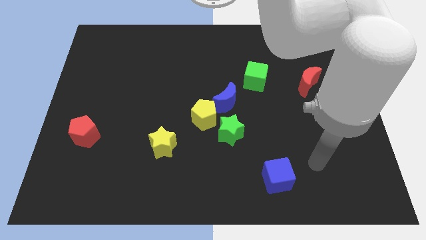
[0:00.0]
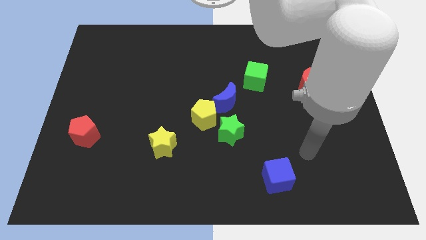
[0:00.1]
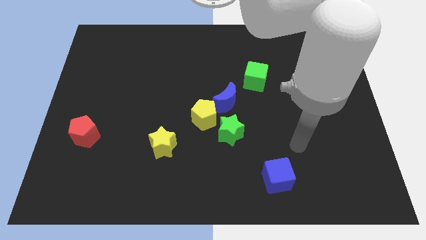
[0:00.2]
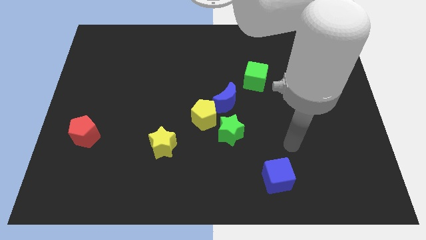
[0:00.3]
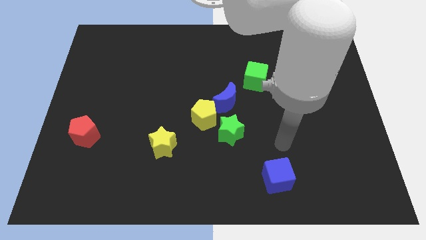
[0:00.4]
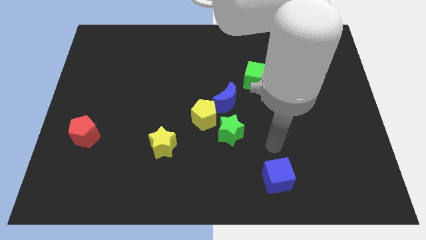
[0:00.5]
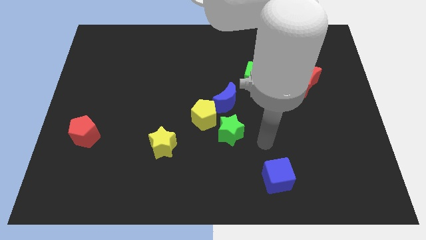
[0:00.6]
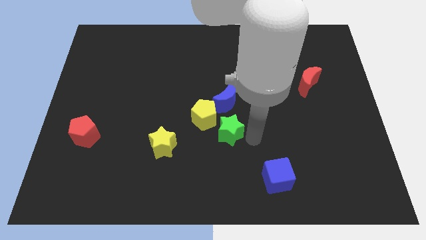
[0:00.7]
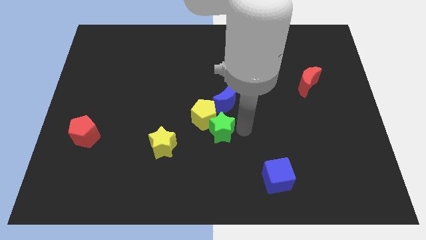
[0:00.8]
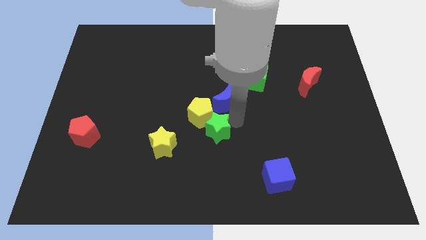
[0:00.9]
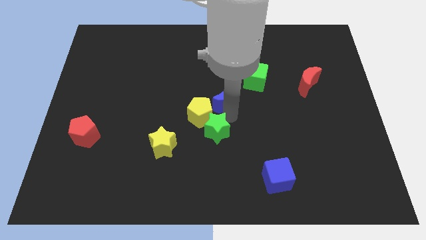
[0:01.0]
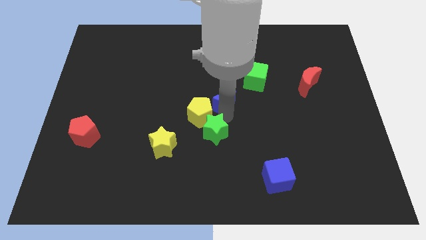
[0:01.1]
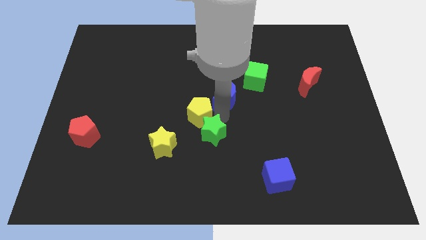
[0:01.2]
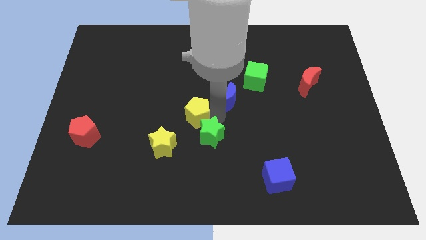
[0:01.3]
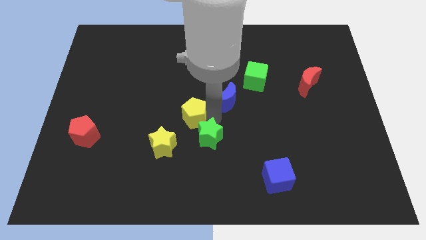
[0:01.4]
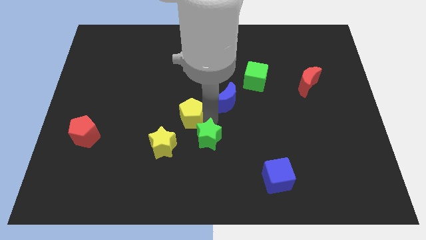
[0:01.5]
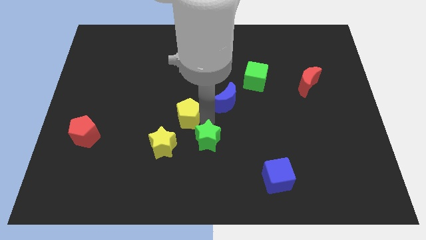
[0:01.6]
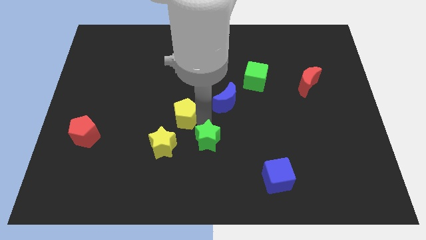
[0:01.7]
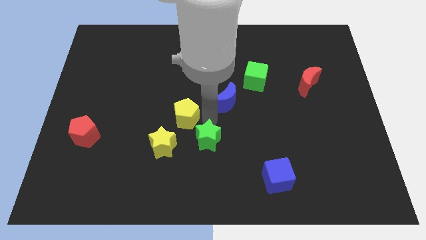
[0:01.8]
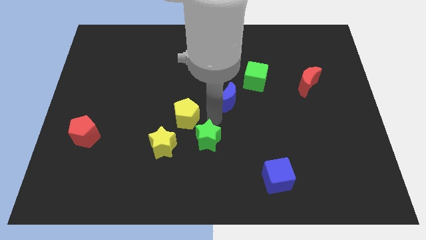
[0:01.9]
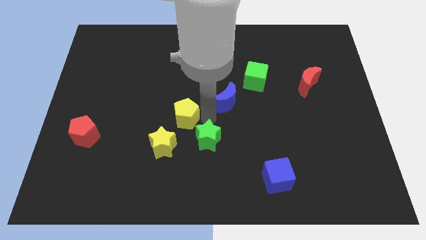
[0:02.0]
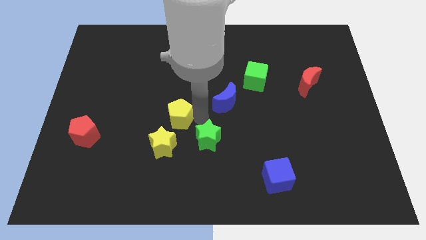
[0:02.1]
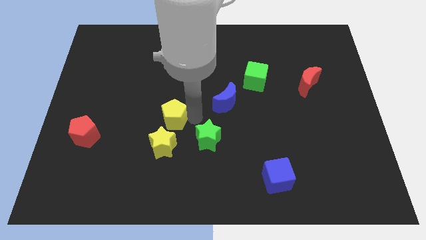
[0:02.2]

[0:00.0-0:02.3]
separate the yellow pentagon from the blue moon and green star

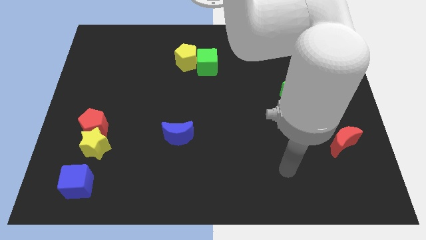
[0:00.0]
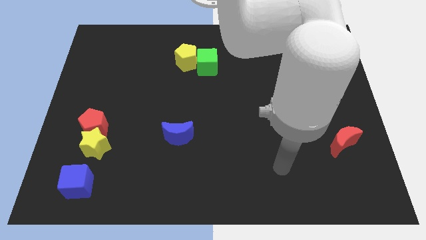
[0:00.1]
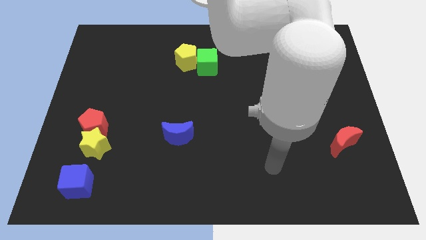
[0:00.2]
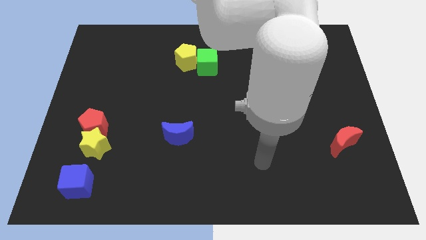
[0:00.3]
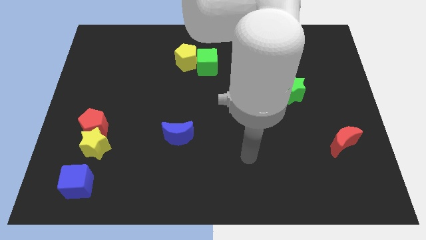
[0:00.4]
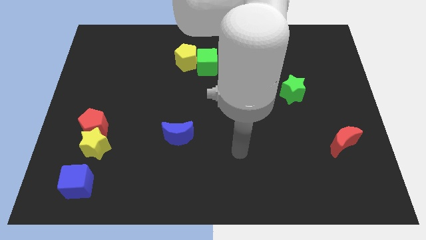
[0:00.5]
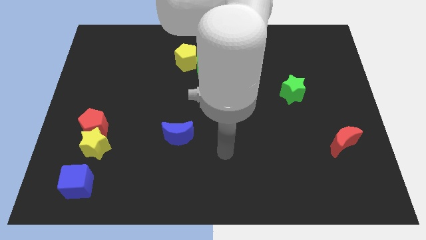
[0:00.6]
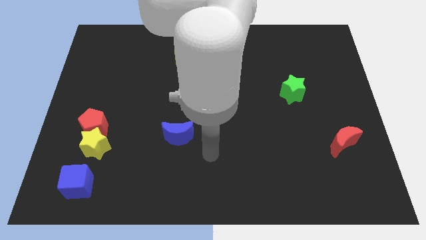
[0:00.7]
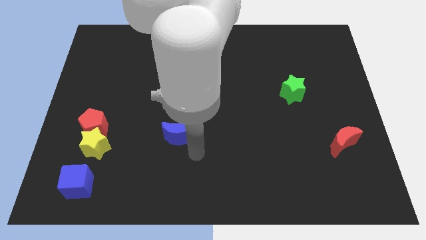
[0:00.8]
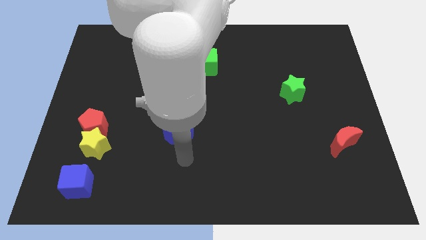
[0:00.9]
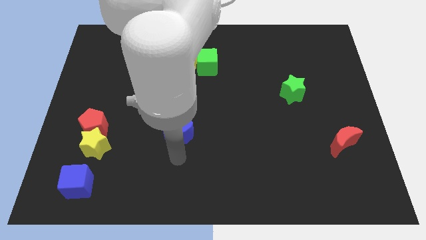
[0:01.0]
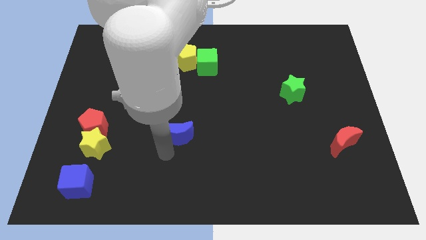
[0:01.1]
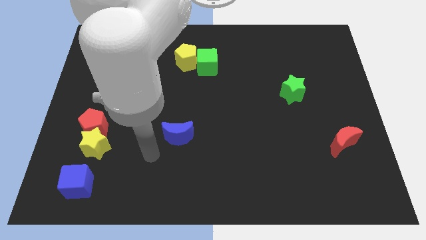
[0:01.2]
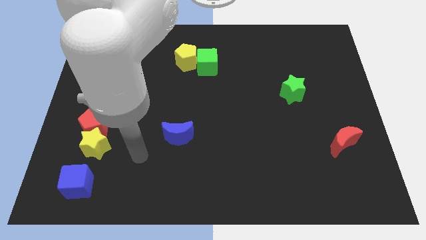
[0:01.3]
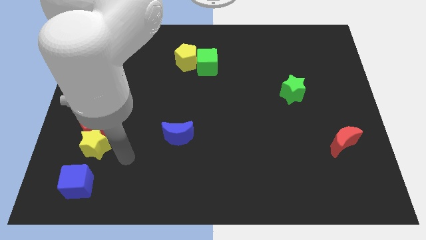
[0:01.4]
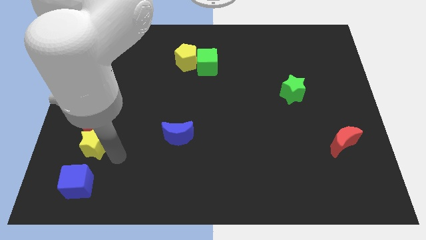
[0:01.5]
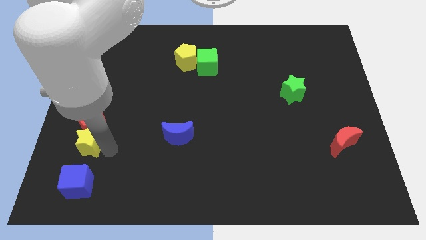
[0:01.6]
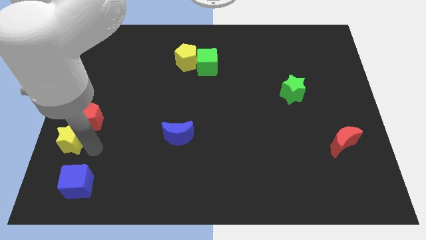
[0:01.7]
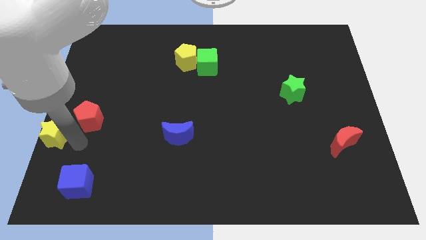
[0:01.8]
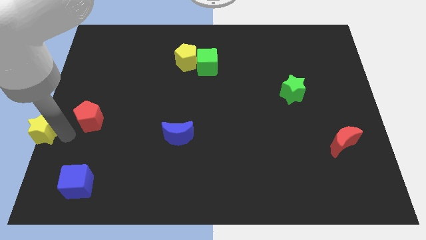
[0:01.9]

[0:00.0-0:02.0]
separate the red pentagon from the yellow star

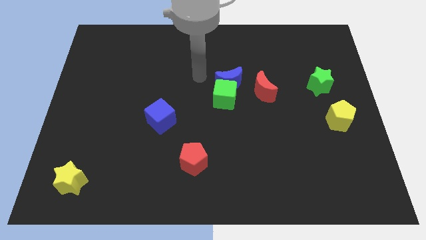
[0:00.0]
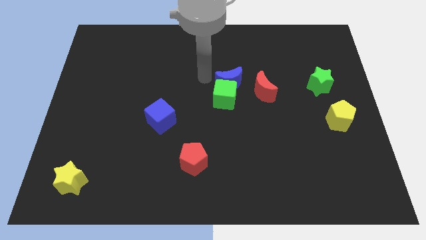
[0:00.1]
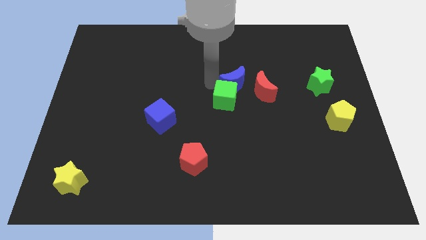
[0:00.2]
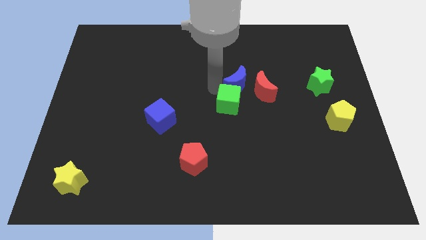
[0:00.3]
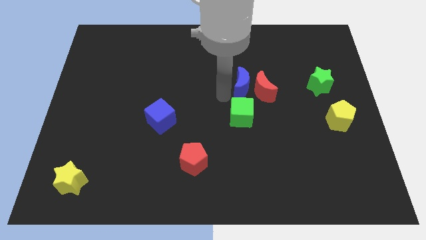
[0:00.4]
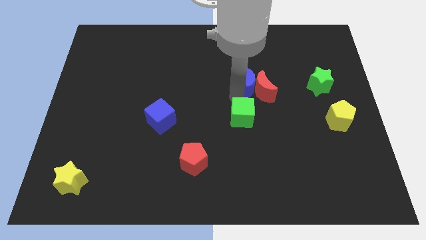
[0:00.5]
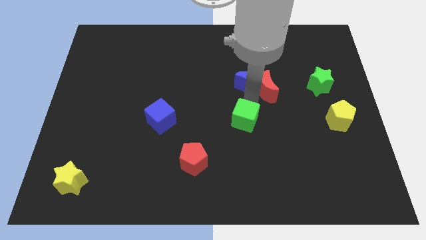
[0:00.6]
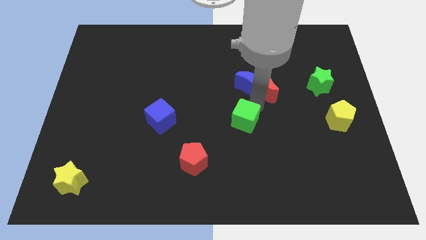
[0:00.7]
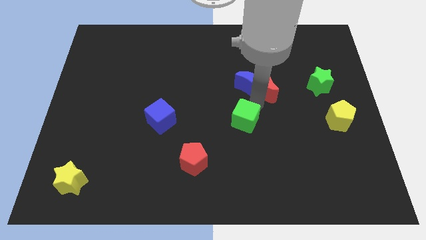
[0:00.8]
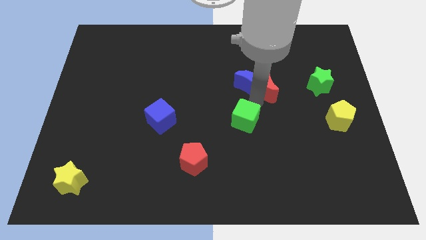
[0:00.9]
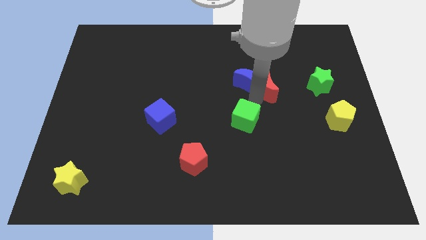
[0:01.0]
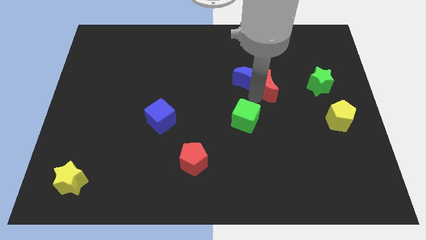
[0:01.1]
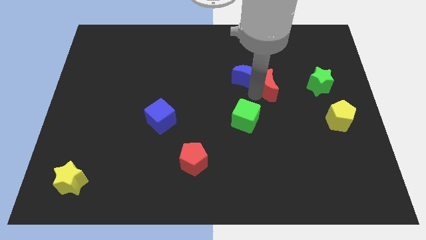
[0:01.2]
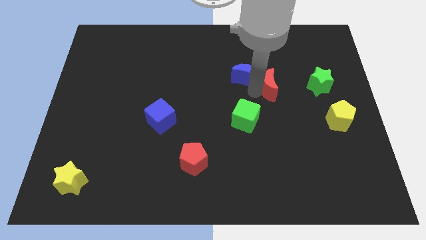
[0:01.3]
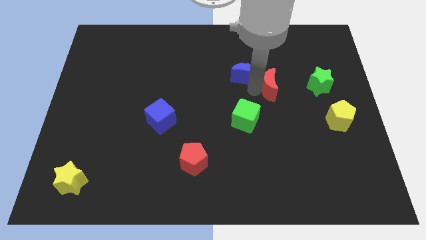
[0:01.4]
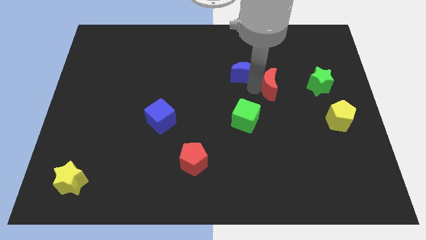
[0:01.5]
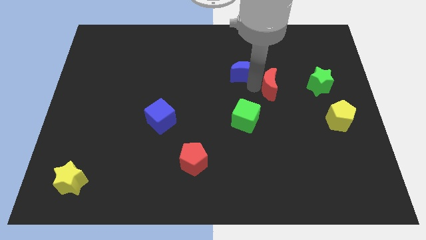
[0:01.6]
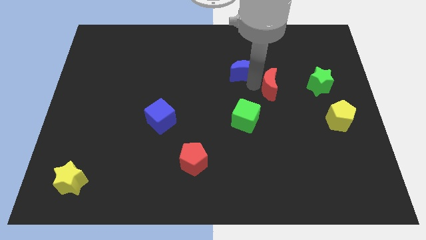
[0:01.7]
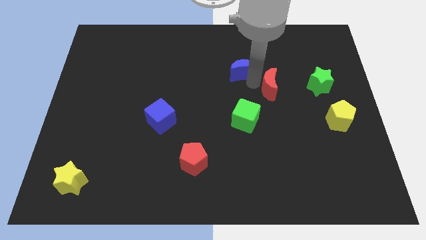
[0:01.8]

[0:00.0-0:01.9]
move the blue moon away from the green cube and red moon

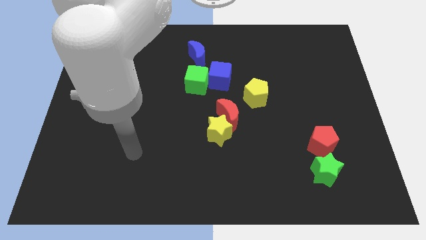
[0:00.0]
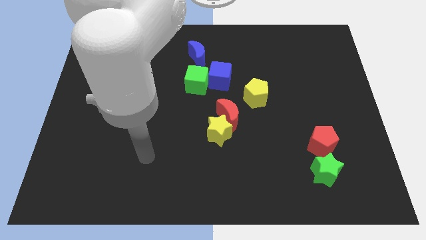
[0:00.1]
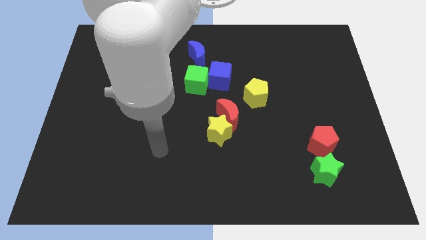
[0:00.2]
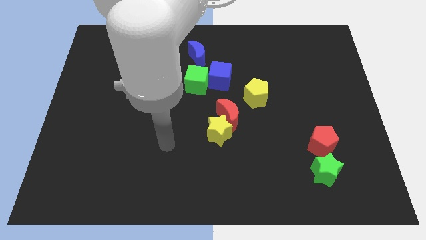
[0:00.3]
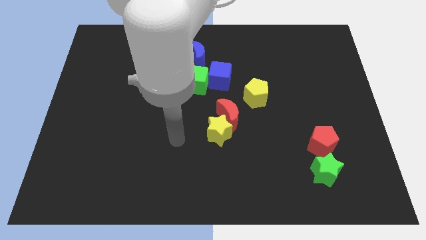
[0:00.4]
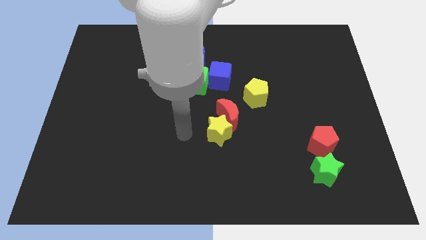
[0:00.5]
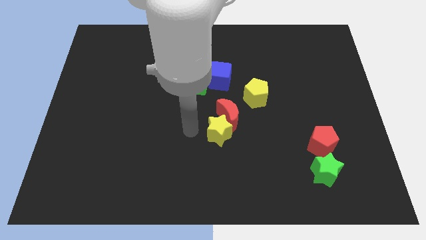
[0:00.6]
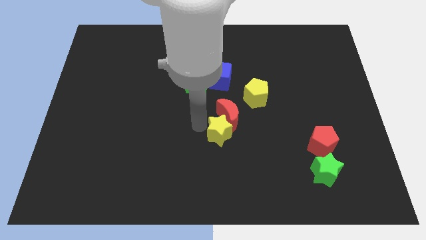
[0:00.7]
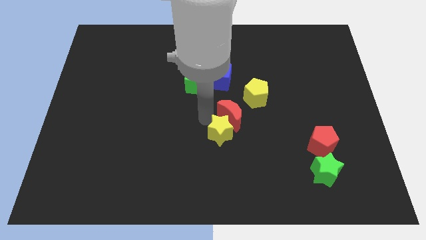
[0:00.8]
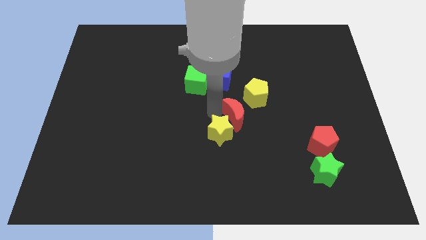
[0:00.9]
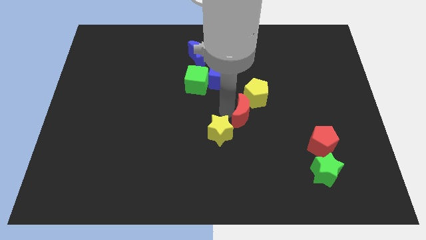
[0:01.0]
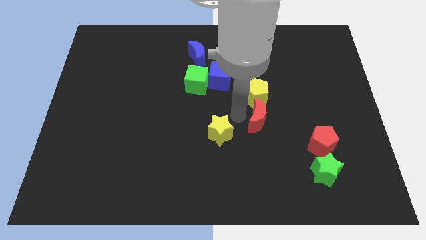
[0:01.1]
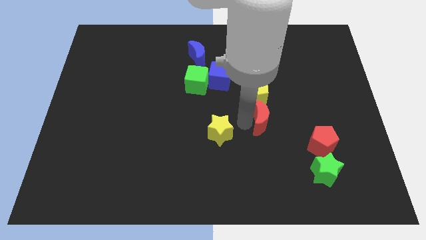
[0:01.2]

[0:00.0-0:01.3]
separate the yellow star from the red moon

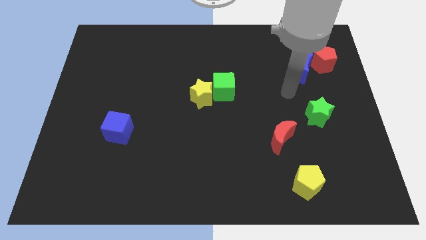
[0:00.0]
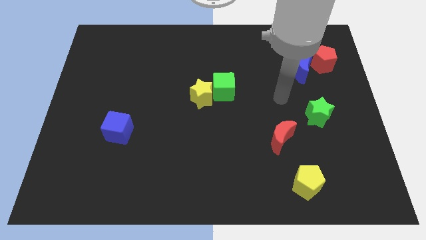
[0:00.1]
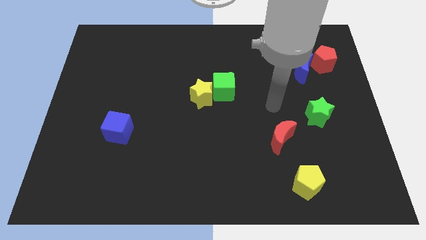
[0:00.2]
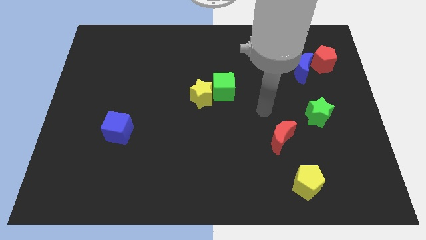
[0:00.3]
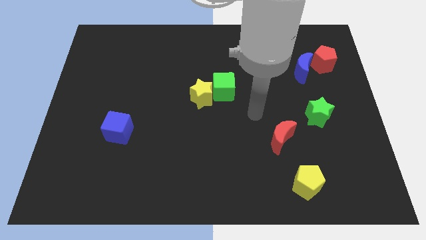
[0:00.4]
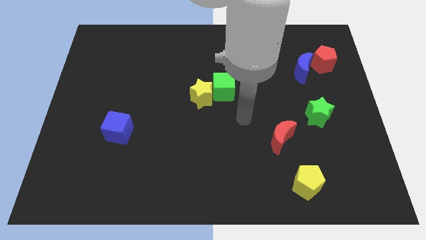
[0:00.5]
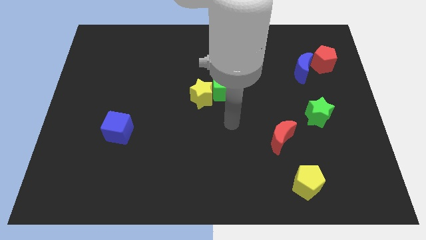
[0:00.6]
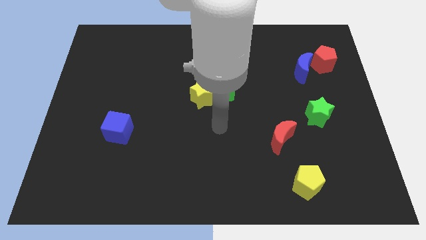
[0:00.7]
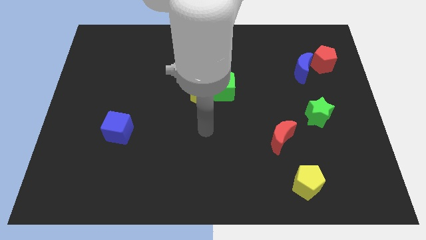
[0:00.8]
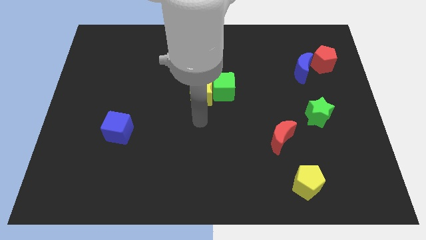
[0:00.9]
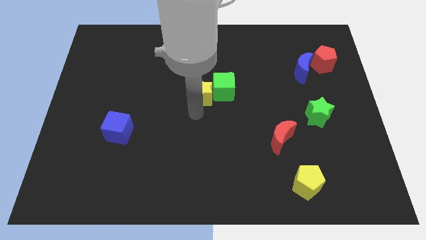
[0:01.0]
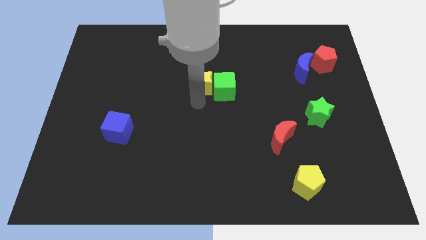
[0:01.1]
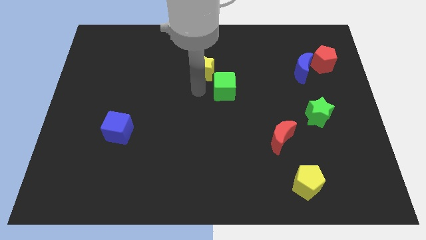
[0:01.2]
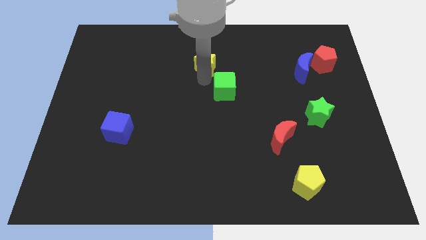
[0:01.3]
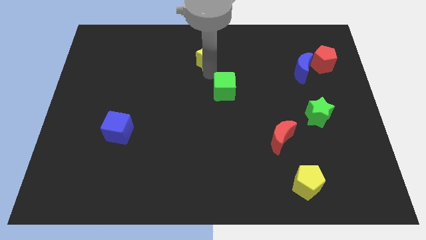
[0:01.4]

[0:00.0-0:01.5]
move the green cube away from the yellow star

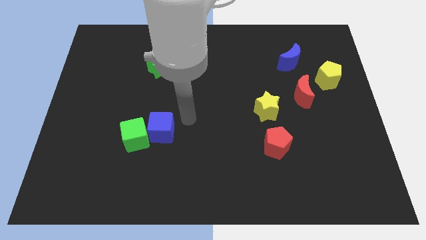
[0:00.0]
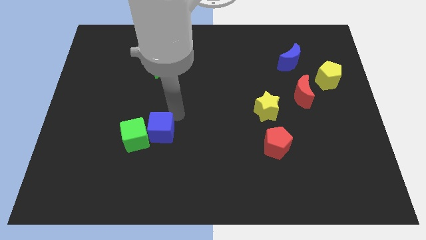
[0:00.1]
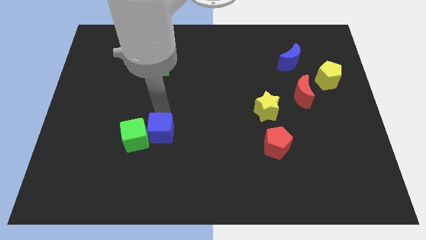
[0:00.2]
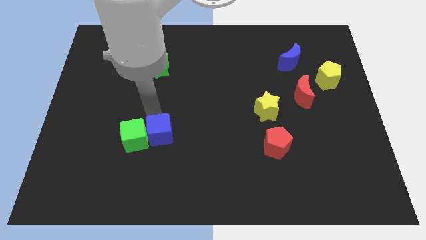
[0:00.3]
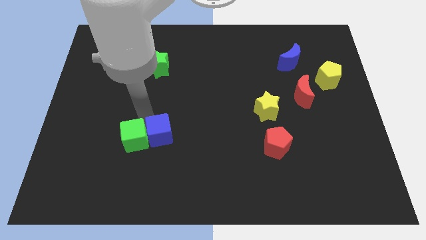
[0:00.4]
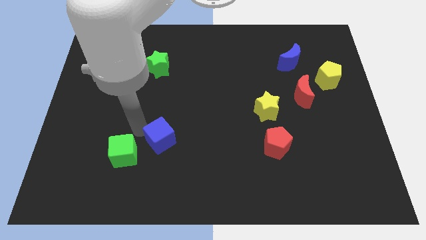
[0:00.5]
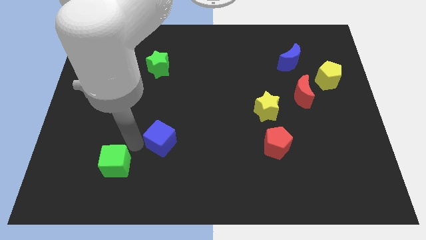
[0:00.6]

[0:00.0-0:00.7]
pull the blue cube apart from the green cube
